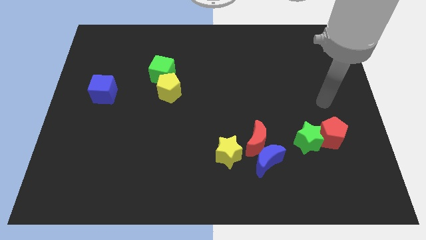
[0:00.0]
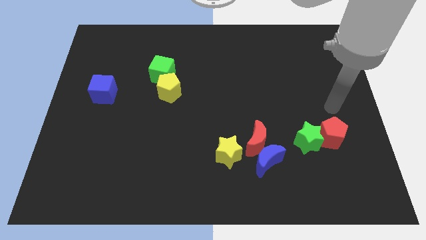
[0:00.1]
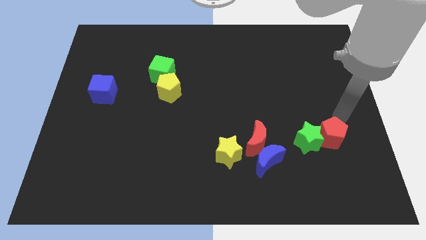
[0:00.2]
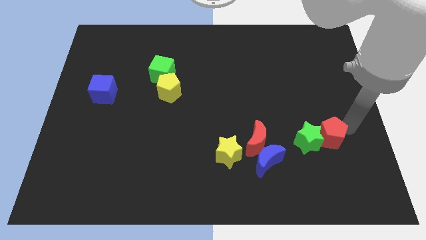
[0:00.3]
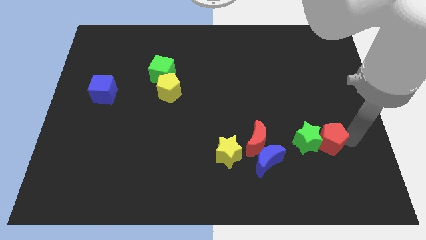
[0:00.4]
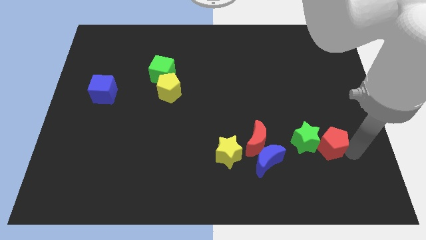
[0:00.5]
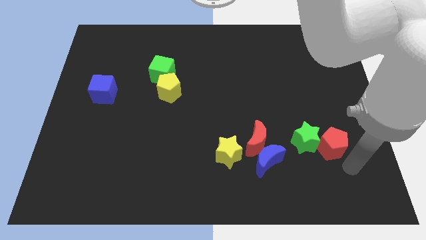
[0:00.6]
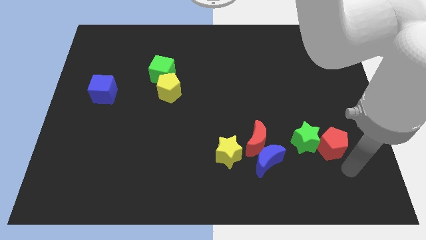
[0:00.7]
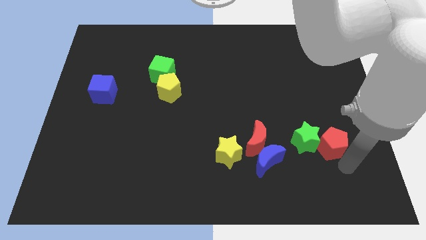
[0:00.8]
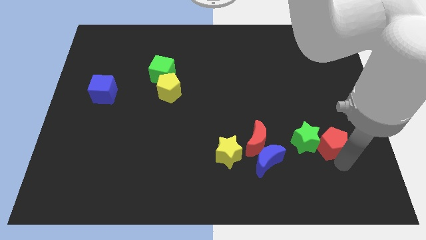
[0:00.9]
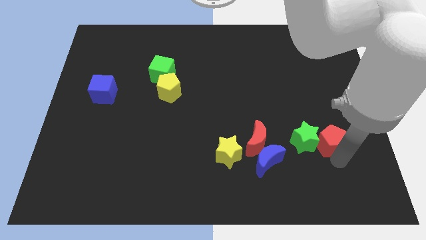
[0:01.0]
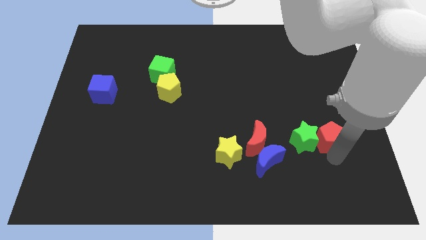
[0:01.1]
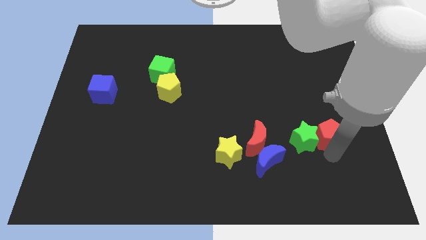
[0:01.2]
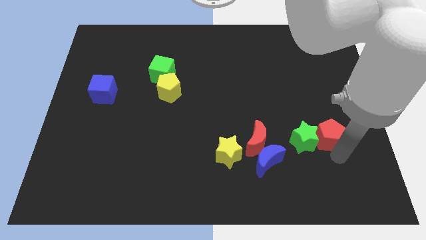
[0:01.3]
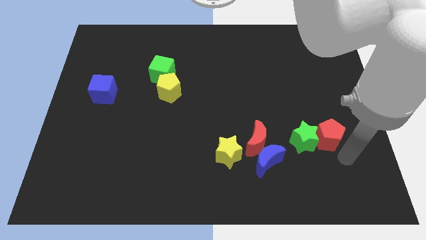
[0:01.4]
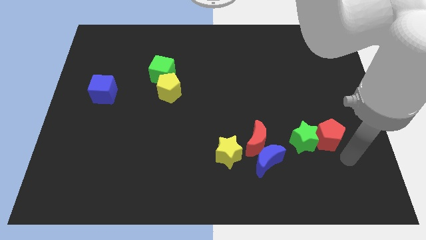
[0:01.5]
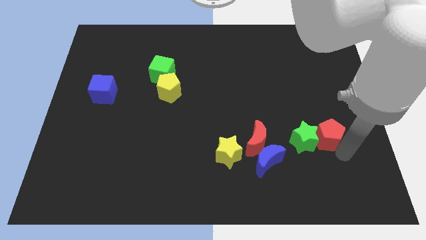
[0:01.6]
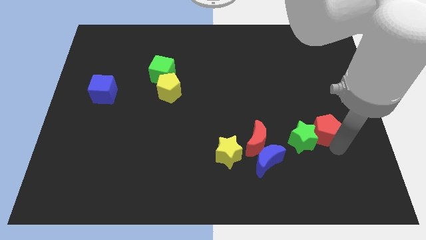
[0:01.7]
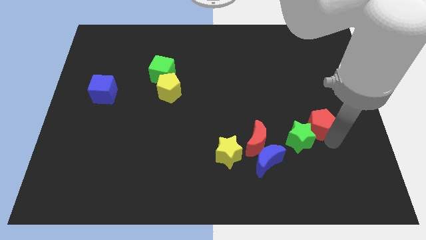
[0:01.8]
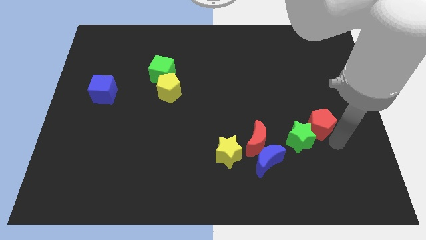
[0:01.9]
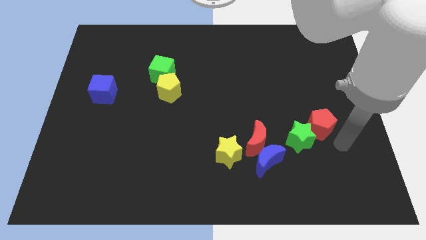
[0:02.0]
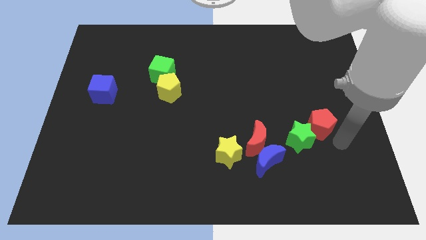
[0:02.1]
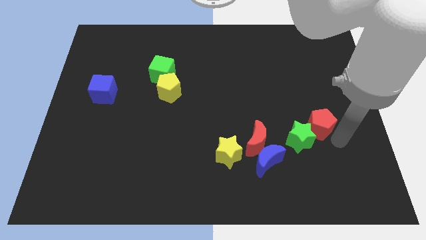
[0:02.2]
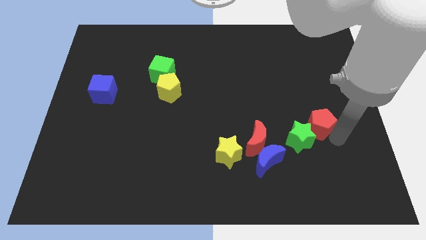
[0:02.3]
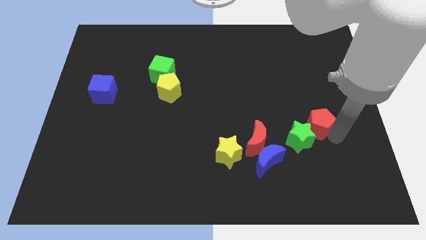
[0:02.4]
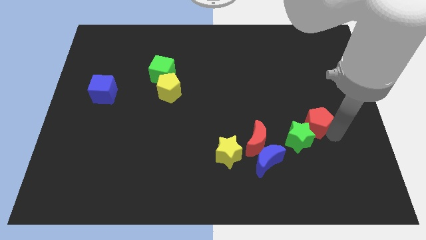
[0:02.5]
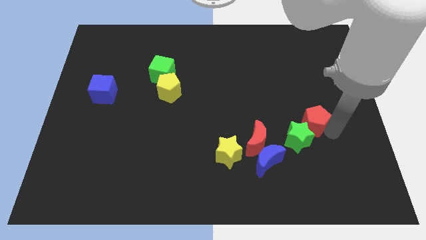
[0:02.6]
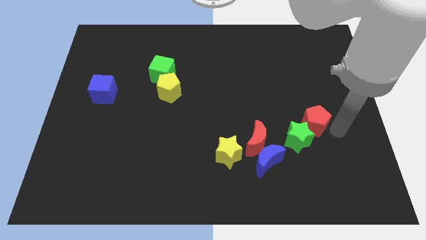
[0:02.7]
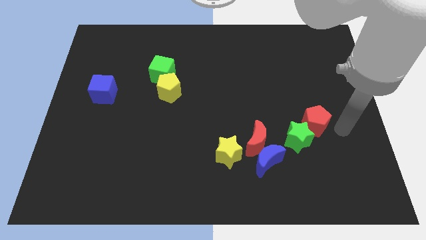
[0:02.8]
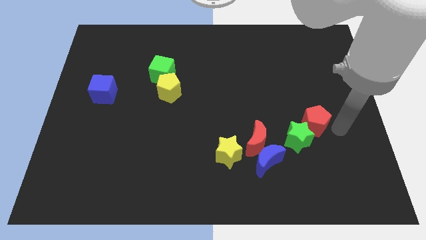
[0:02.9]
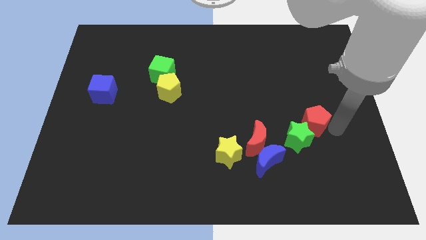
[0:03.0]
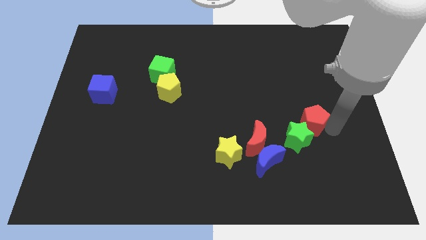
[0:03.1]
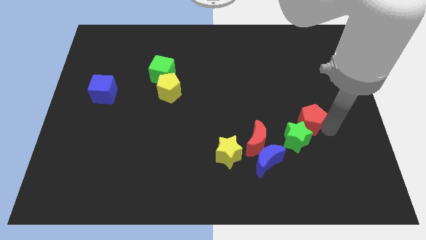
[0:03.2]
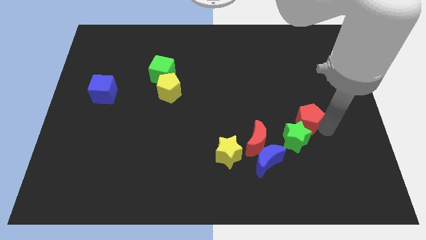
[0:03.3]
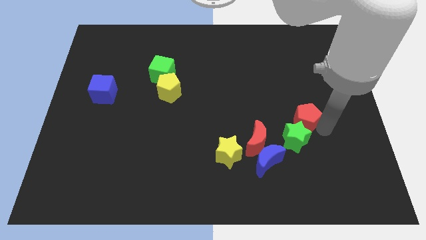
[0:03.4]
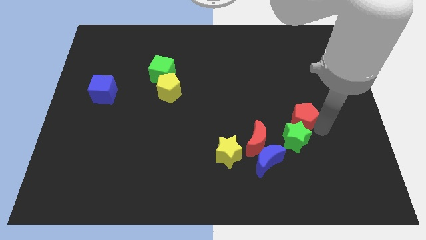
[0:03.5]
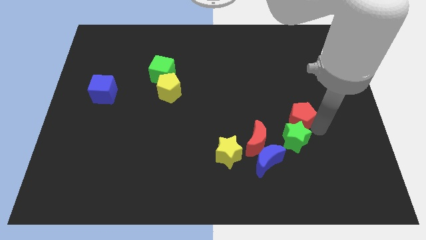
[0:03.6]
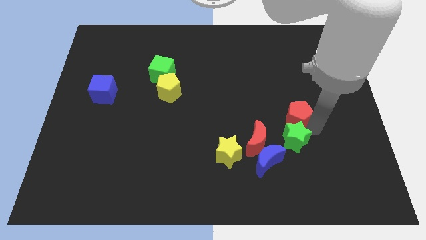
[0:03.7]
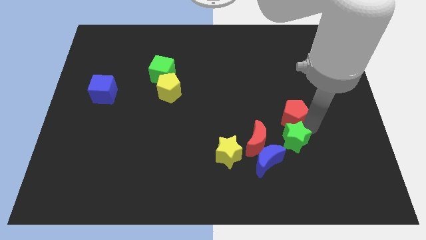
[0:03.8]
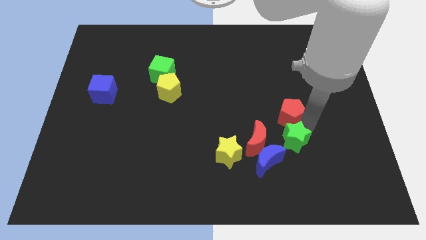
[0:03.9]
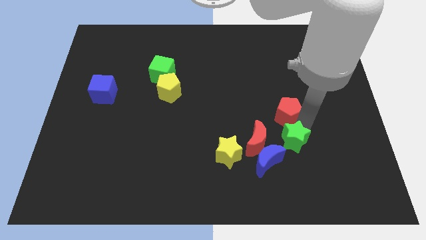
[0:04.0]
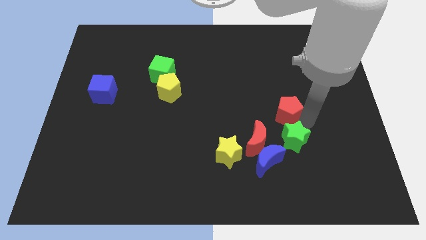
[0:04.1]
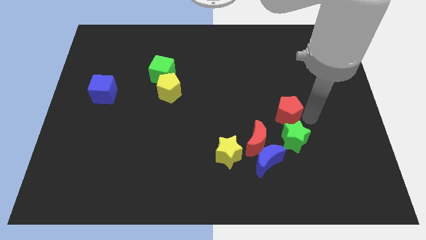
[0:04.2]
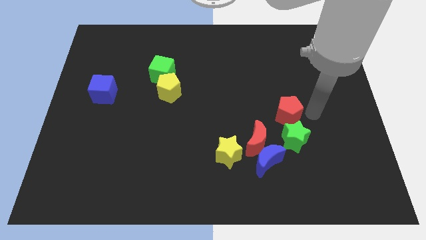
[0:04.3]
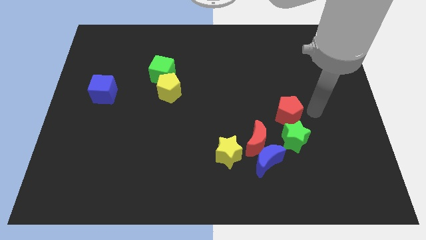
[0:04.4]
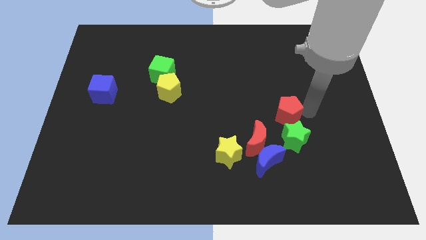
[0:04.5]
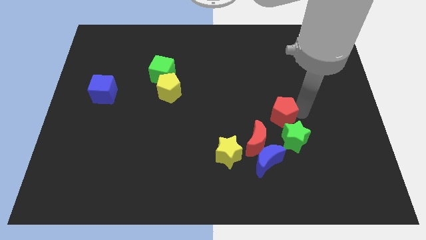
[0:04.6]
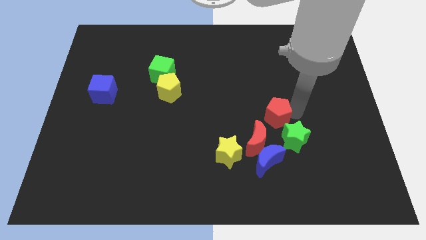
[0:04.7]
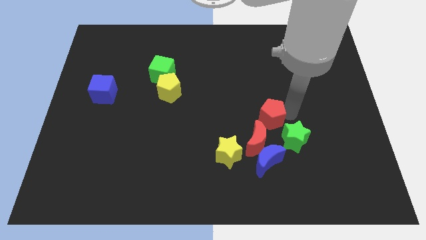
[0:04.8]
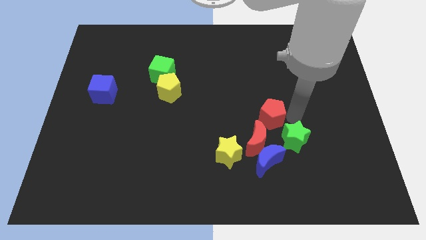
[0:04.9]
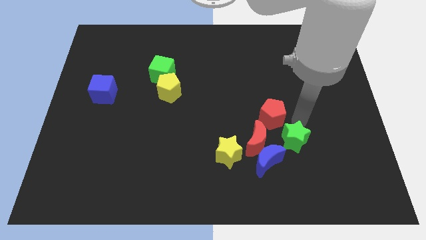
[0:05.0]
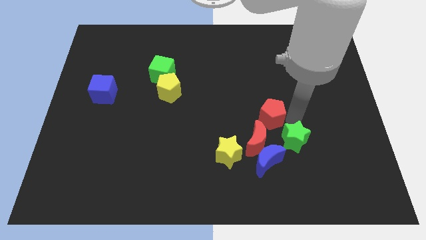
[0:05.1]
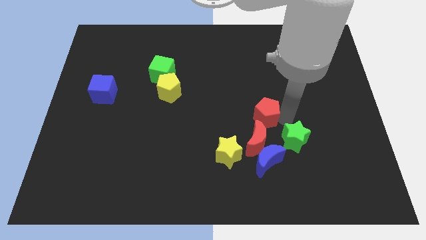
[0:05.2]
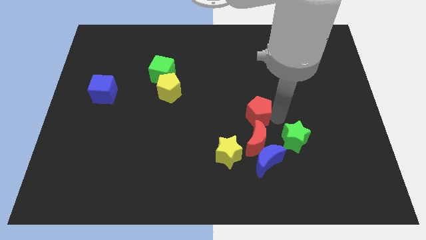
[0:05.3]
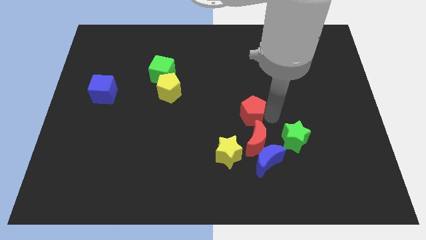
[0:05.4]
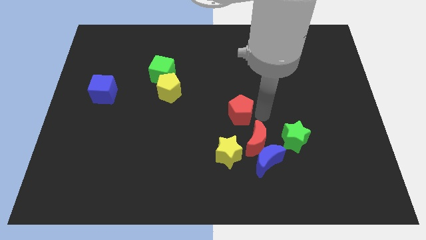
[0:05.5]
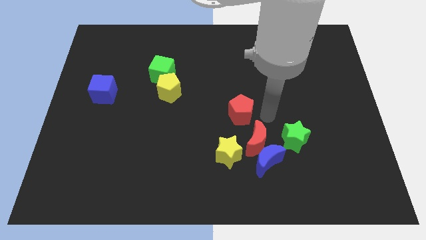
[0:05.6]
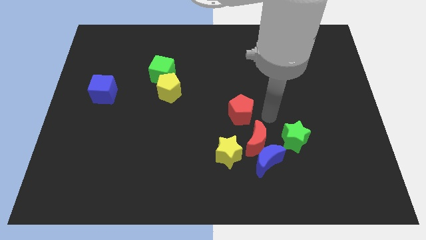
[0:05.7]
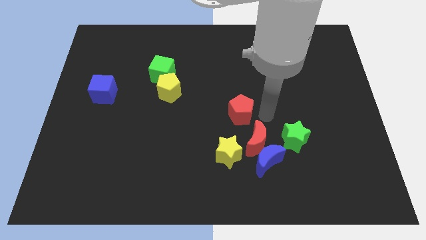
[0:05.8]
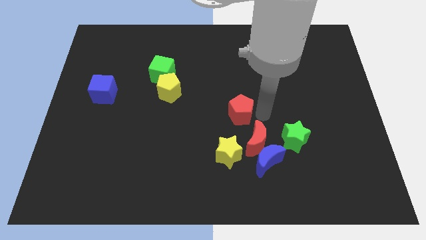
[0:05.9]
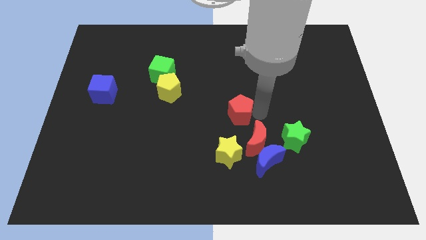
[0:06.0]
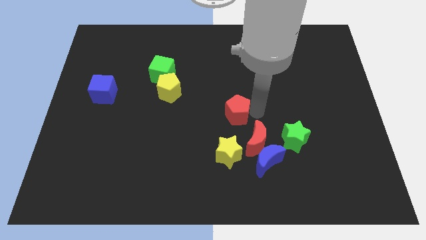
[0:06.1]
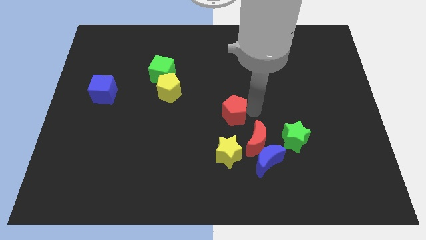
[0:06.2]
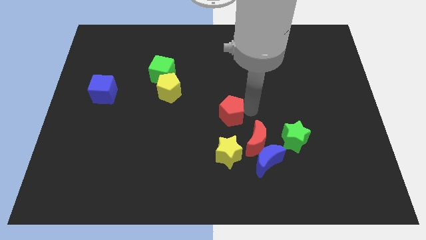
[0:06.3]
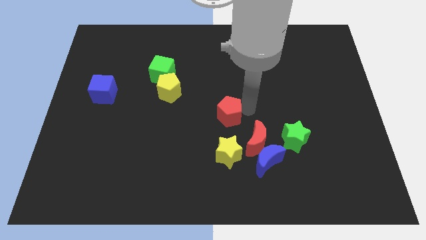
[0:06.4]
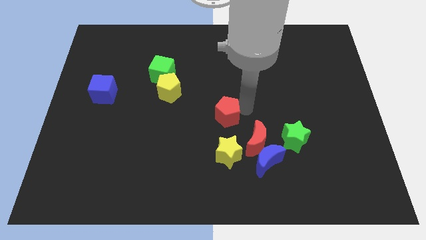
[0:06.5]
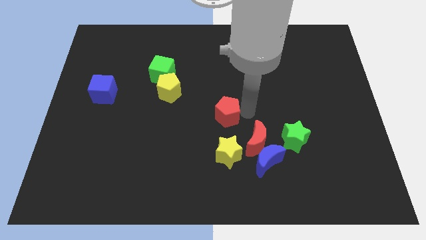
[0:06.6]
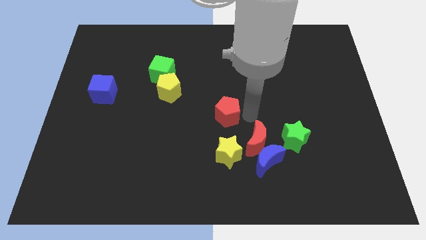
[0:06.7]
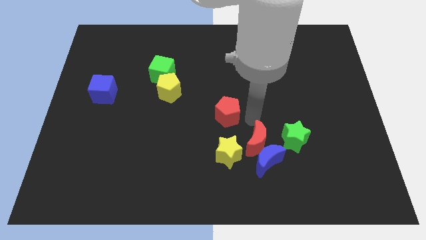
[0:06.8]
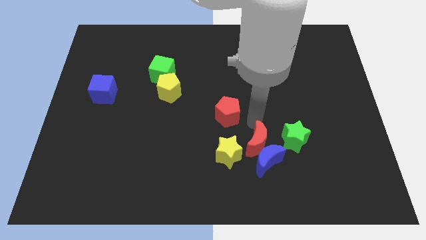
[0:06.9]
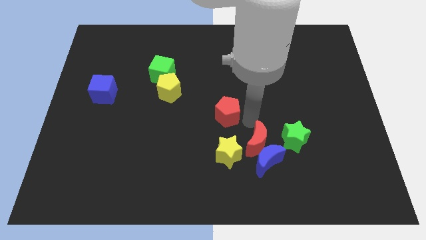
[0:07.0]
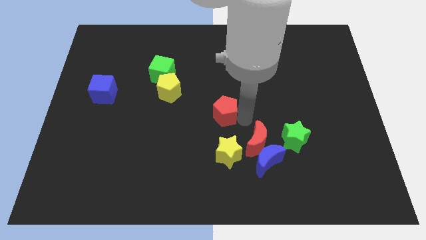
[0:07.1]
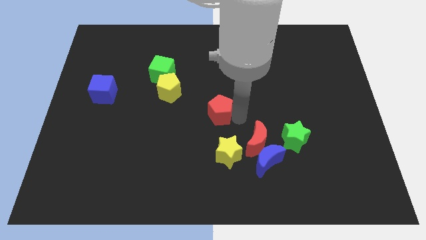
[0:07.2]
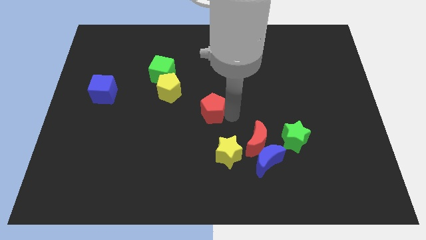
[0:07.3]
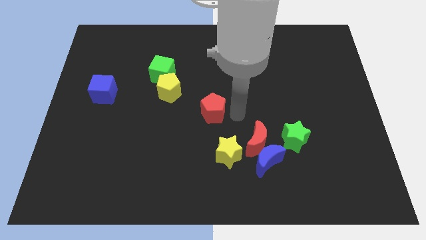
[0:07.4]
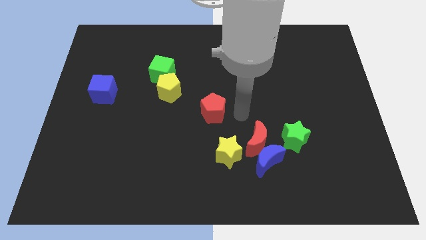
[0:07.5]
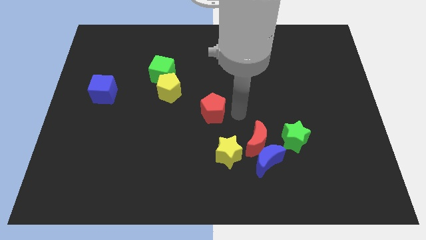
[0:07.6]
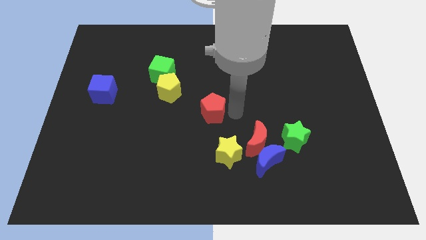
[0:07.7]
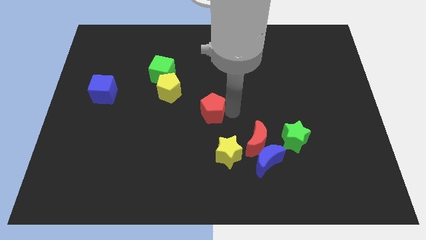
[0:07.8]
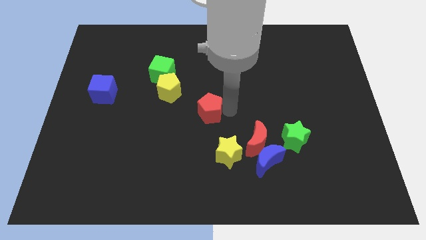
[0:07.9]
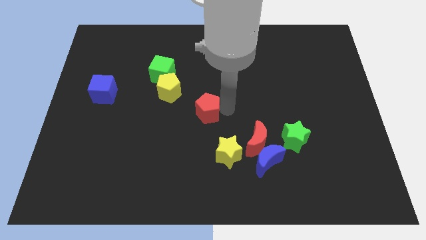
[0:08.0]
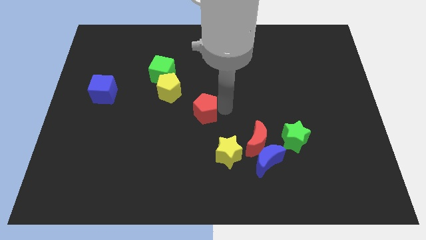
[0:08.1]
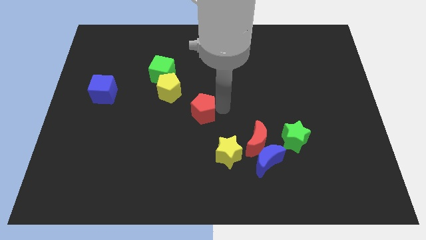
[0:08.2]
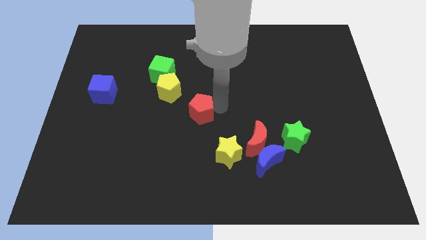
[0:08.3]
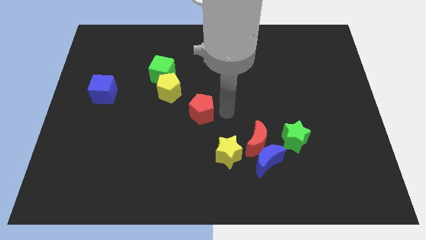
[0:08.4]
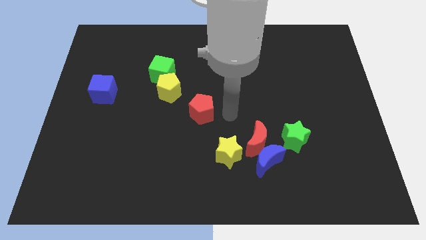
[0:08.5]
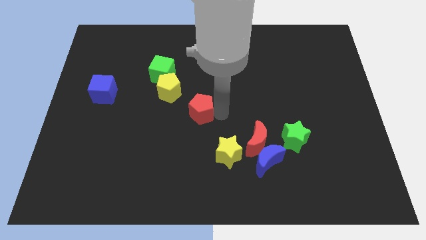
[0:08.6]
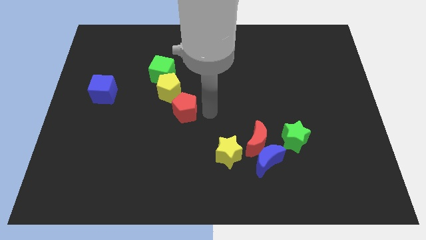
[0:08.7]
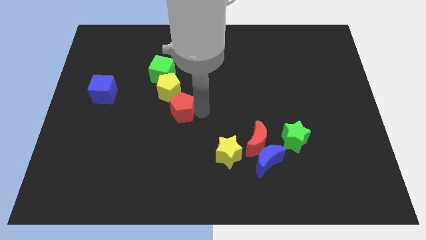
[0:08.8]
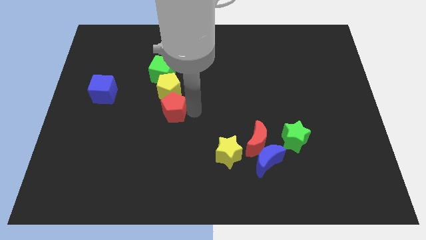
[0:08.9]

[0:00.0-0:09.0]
push the red pentagon to the bottom side of the green cube
